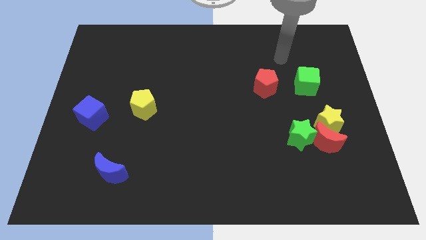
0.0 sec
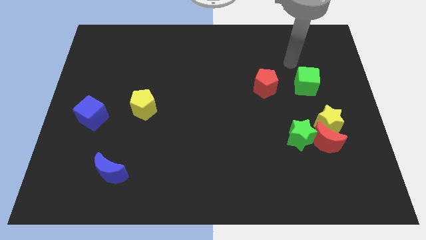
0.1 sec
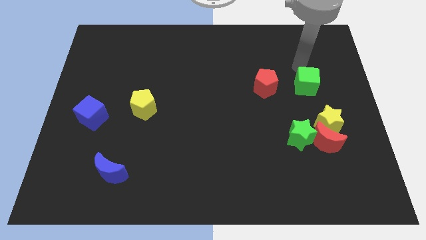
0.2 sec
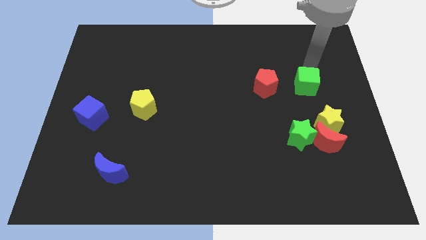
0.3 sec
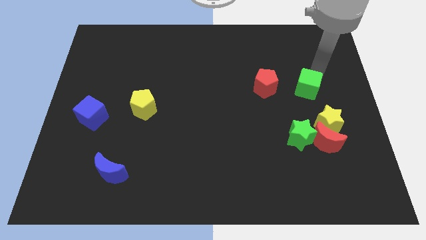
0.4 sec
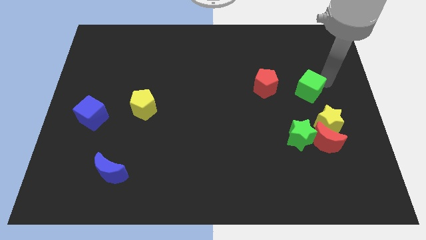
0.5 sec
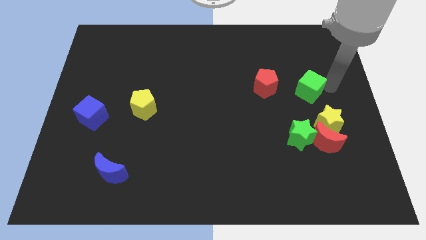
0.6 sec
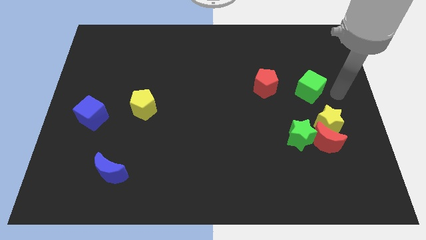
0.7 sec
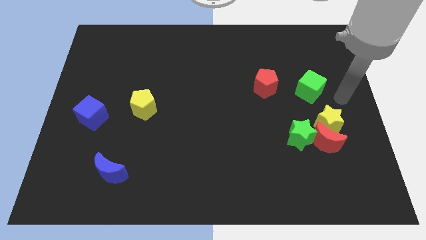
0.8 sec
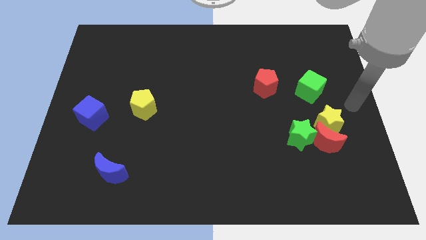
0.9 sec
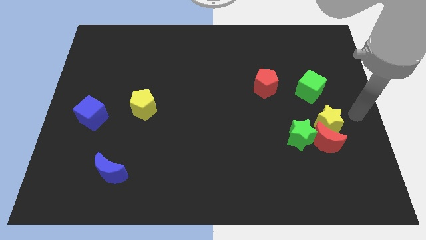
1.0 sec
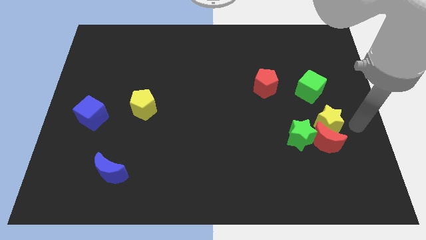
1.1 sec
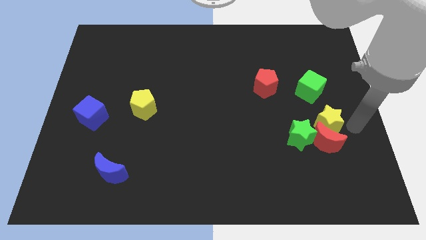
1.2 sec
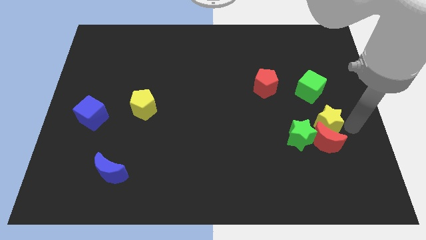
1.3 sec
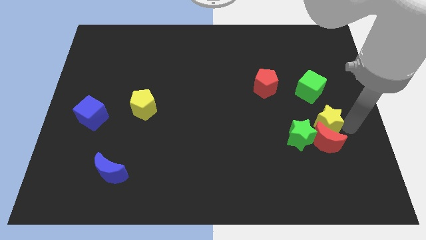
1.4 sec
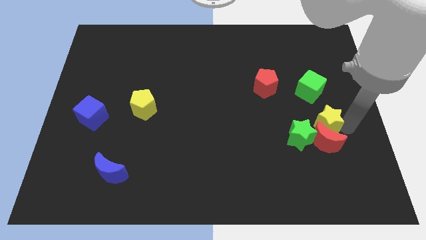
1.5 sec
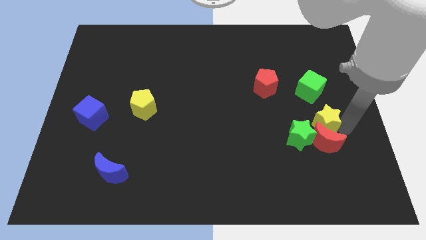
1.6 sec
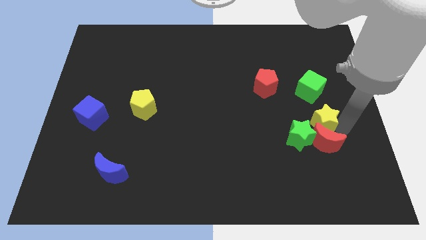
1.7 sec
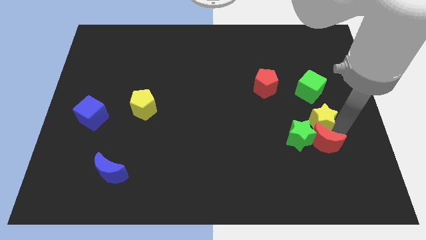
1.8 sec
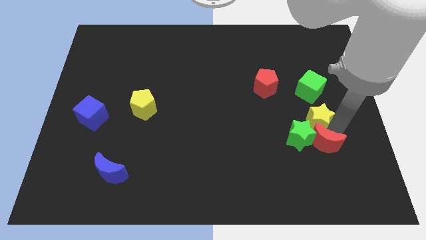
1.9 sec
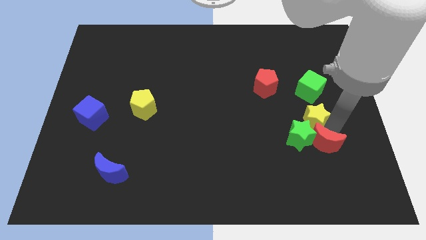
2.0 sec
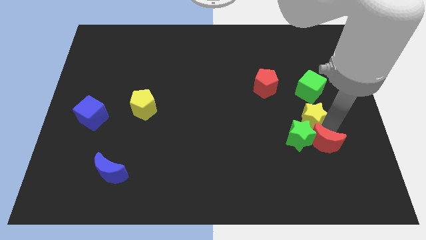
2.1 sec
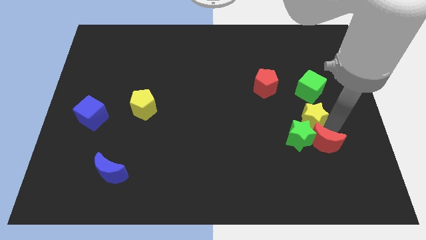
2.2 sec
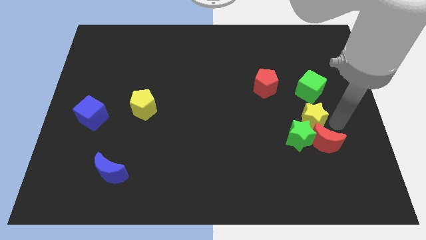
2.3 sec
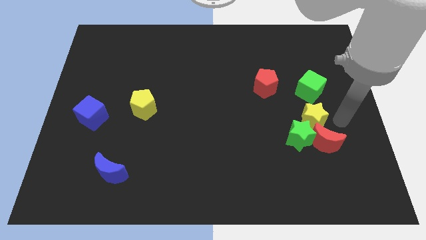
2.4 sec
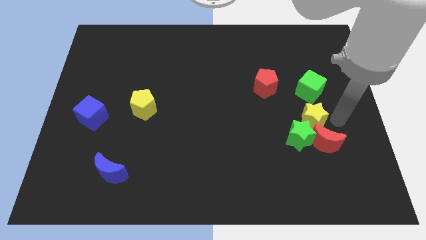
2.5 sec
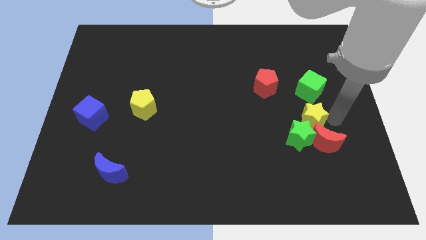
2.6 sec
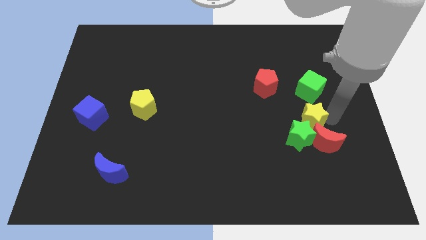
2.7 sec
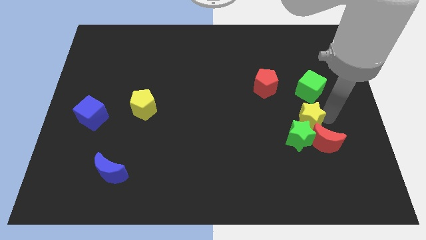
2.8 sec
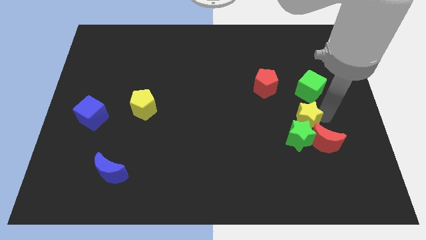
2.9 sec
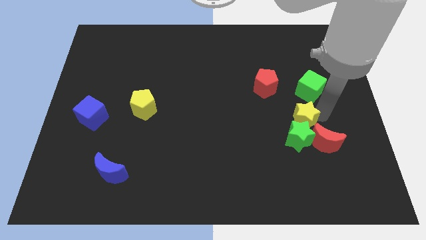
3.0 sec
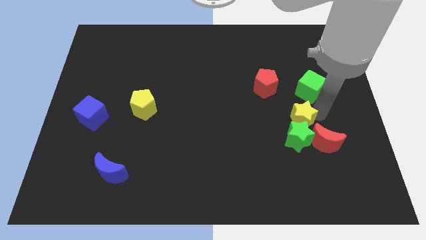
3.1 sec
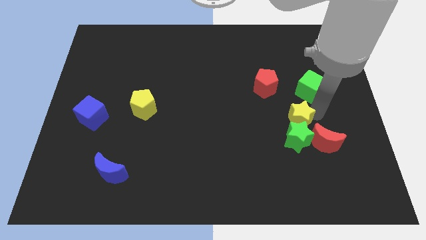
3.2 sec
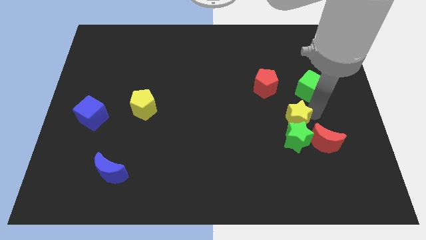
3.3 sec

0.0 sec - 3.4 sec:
slightly push the yellow star to the left

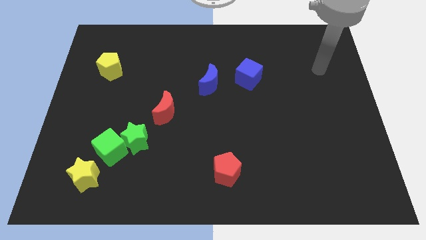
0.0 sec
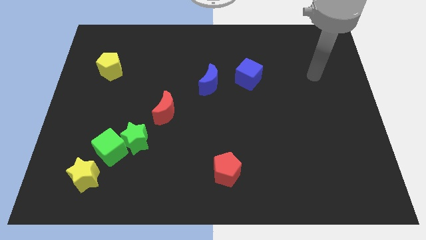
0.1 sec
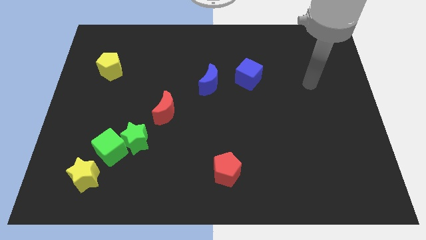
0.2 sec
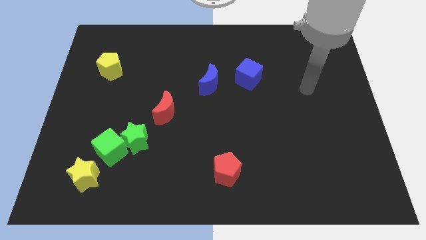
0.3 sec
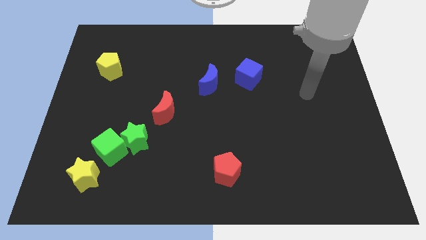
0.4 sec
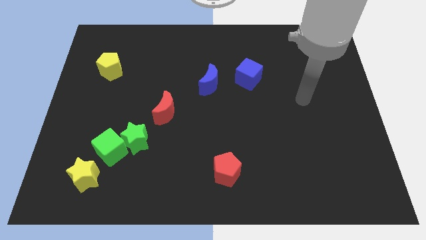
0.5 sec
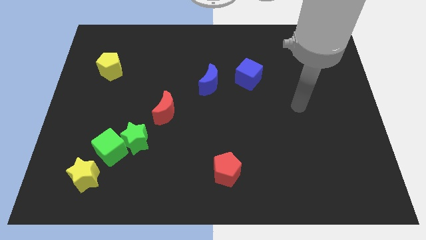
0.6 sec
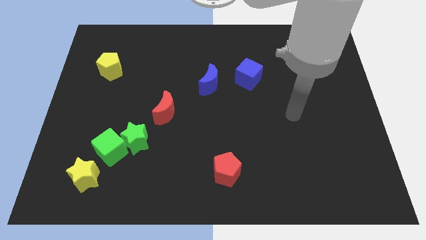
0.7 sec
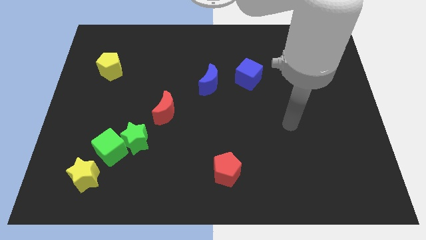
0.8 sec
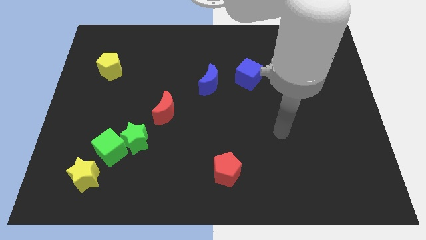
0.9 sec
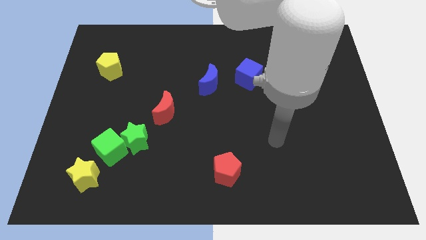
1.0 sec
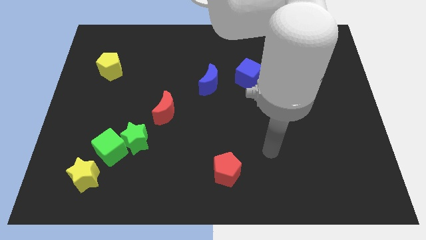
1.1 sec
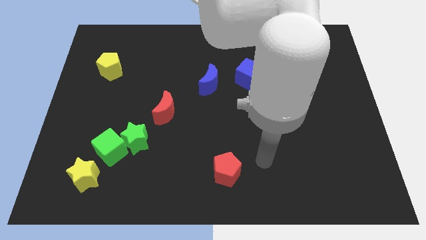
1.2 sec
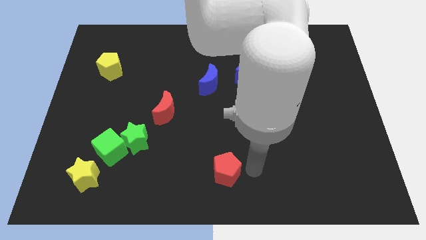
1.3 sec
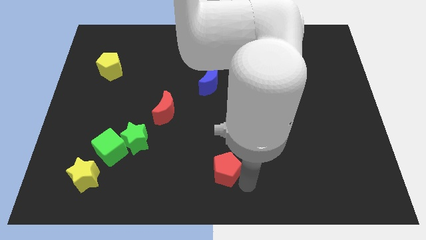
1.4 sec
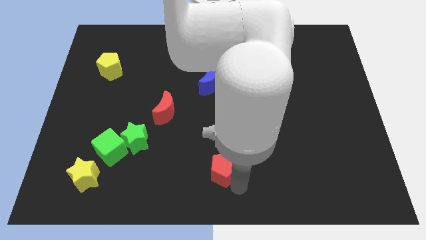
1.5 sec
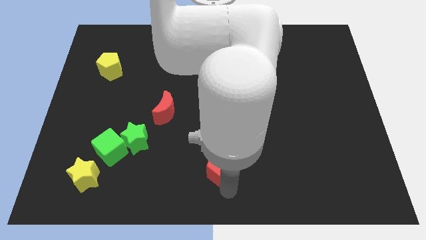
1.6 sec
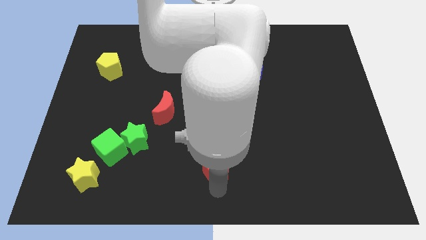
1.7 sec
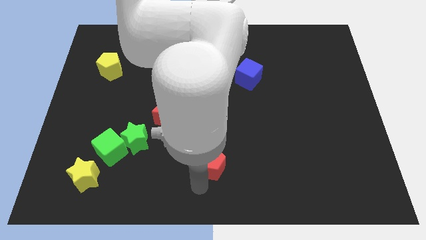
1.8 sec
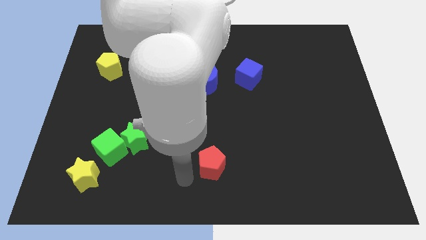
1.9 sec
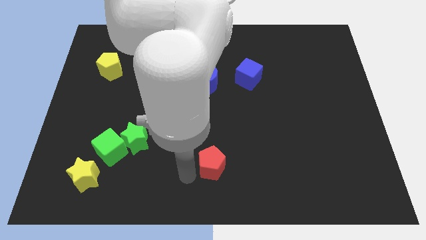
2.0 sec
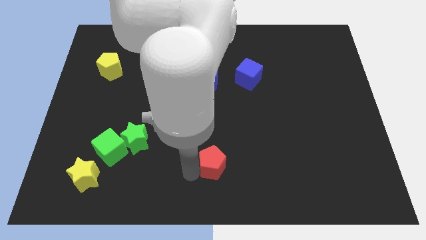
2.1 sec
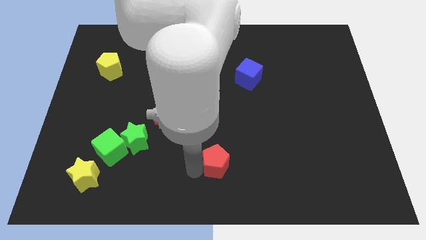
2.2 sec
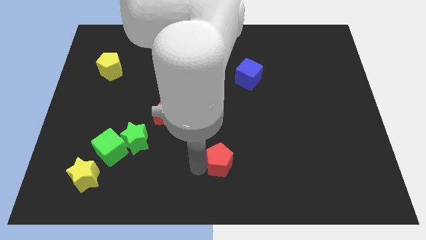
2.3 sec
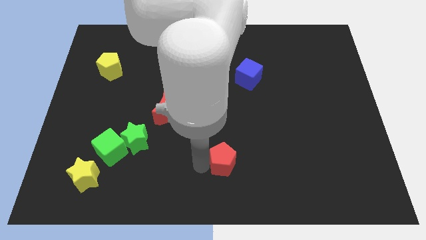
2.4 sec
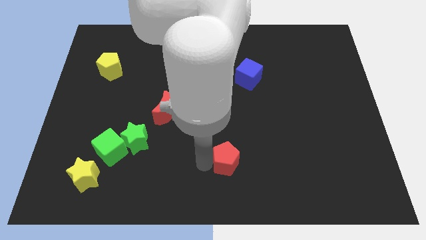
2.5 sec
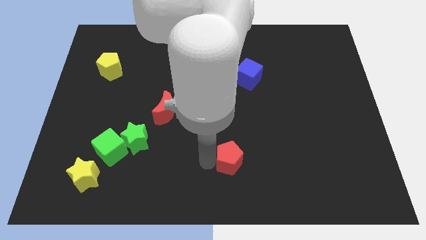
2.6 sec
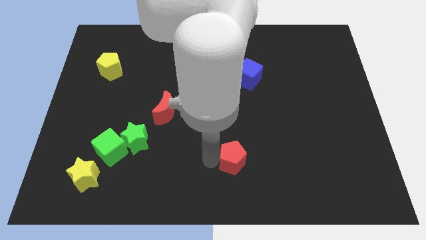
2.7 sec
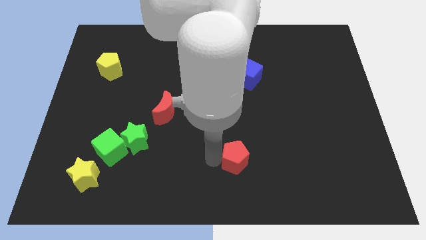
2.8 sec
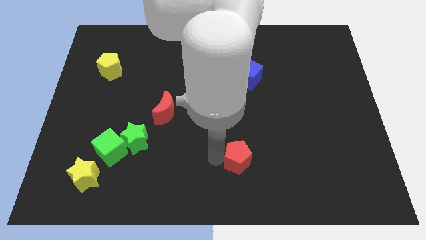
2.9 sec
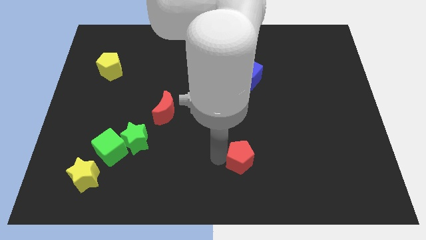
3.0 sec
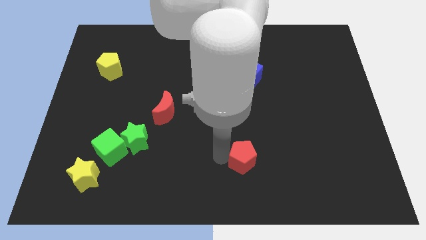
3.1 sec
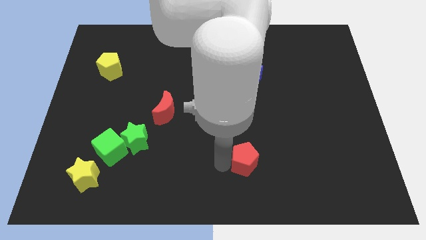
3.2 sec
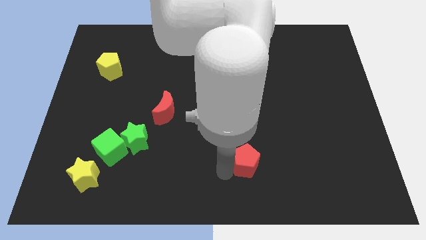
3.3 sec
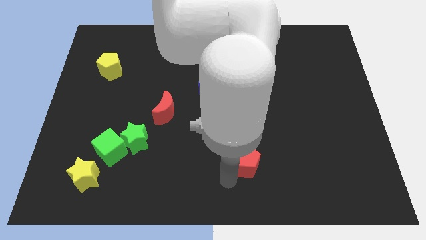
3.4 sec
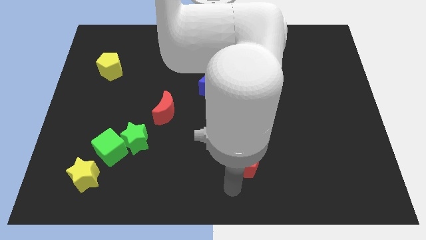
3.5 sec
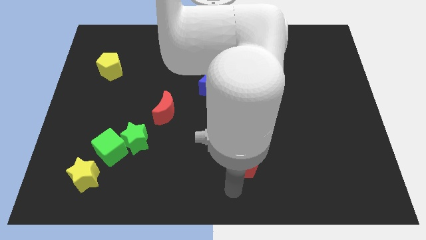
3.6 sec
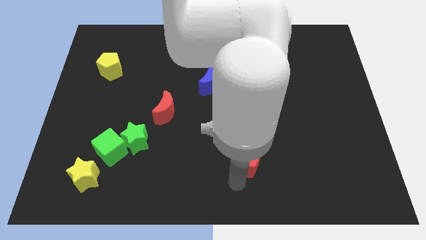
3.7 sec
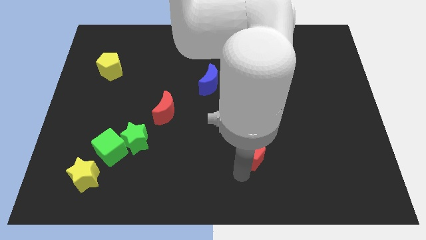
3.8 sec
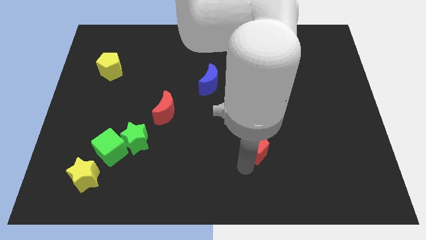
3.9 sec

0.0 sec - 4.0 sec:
push the red pentagon a bit upwards and right
